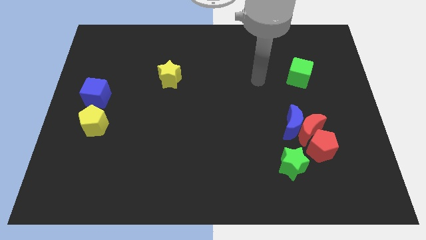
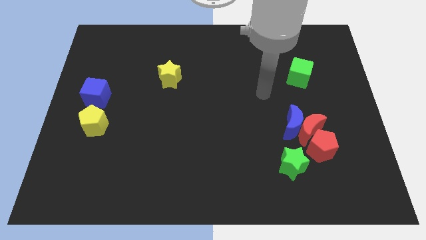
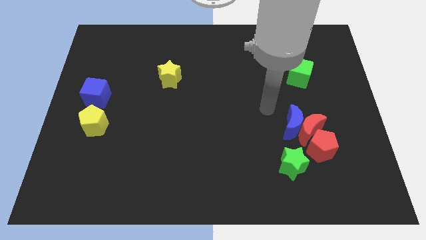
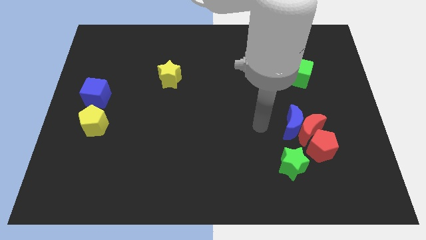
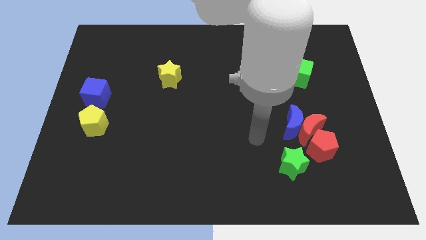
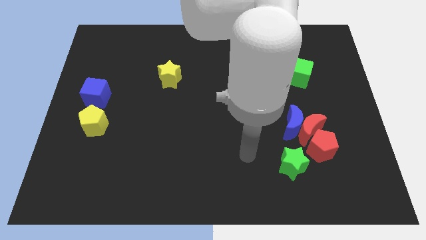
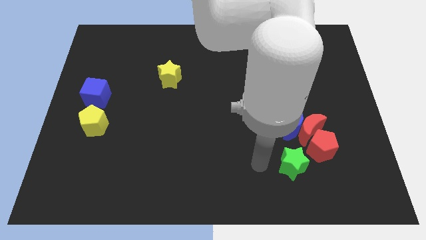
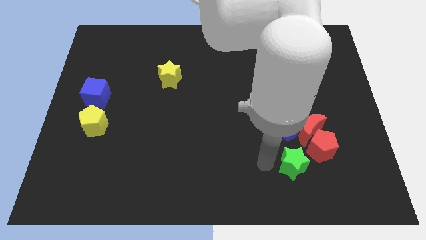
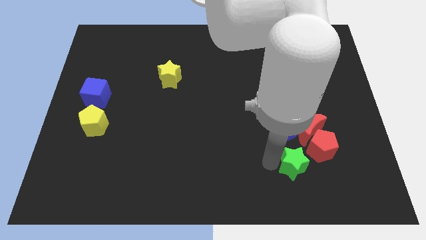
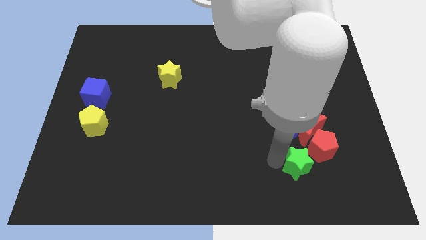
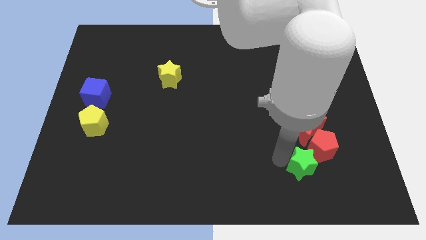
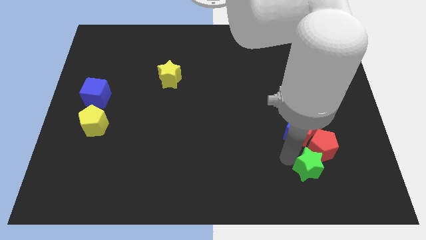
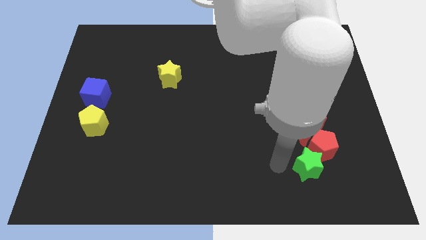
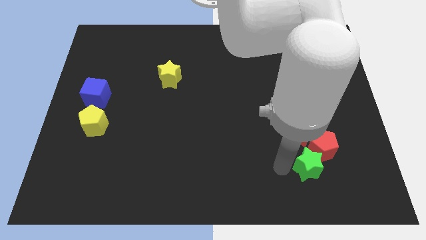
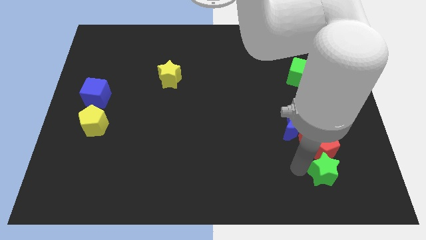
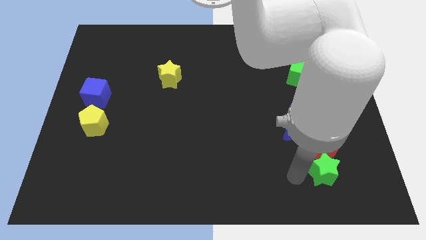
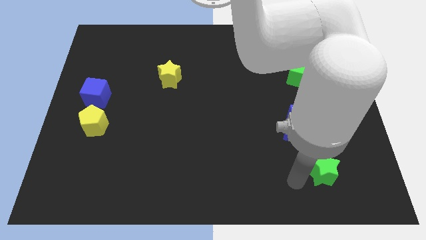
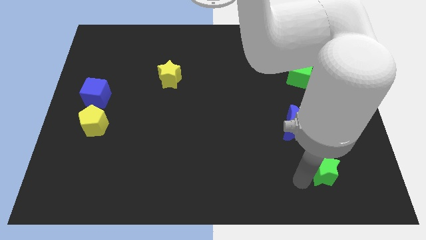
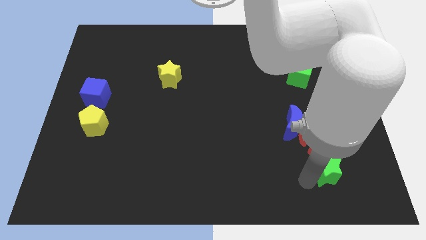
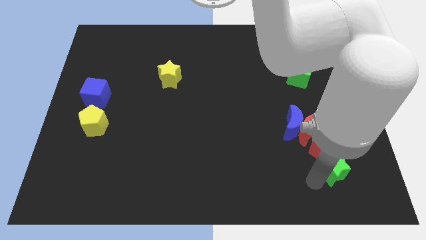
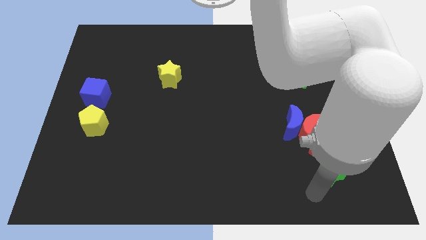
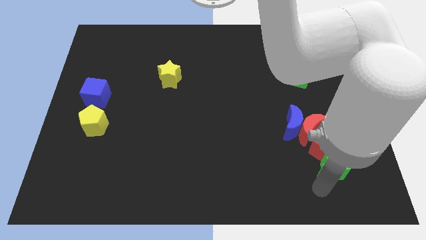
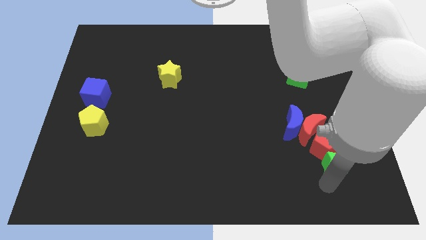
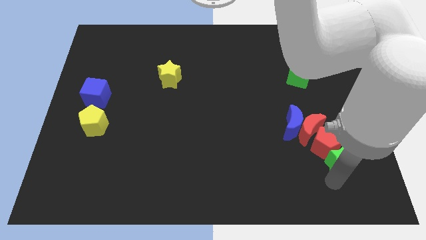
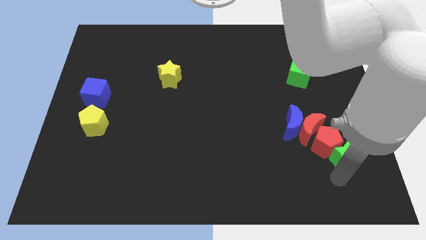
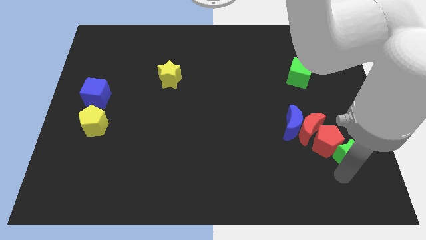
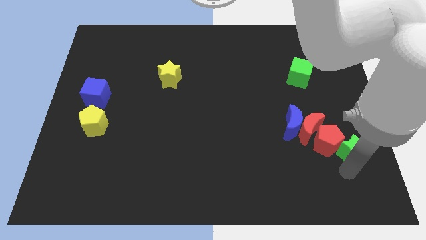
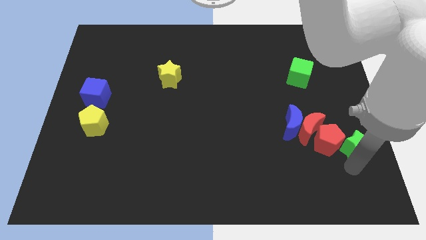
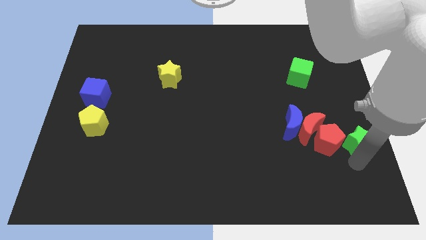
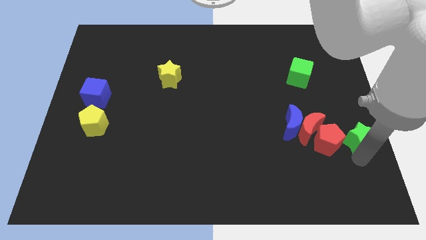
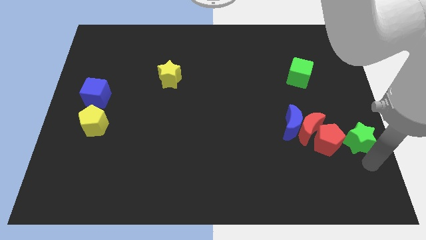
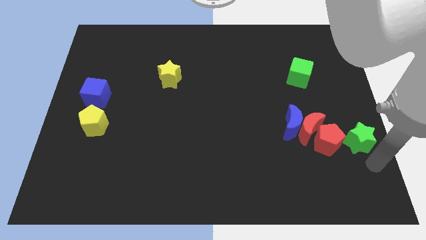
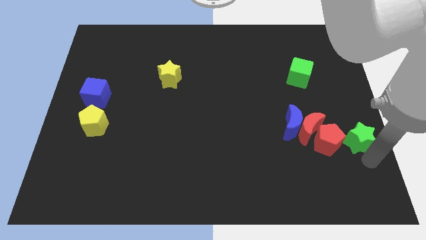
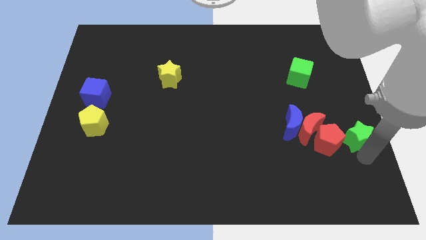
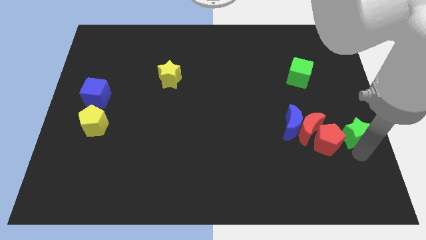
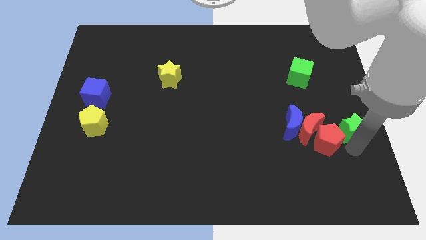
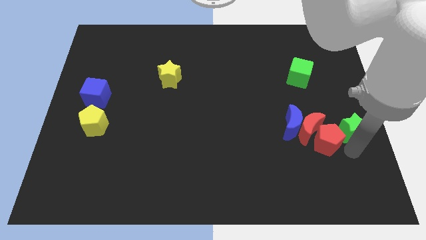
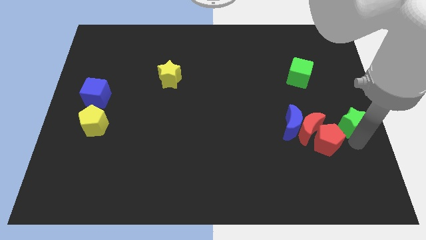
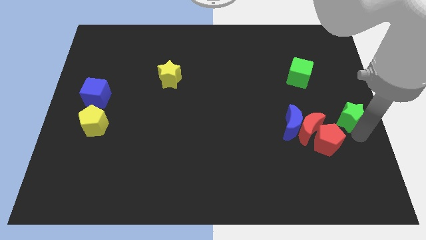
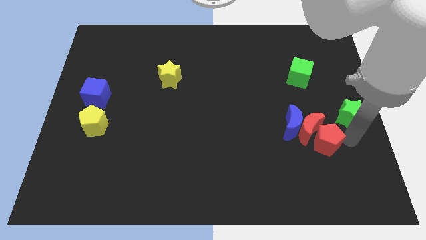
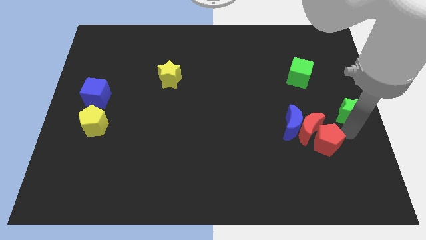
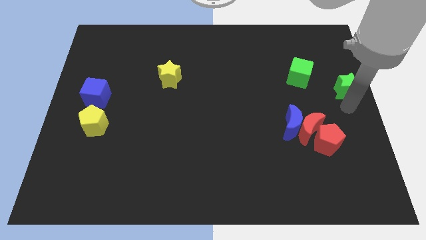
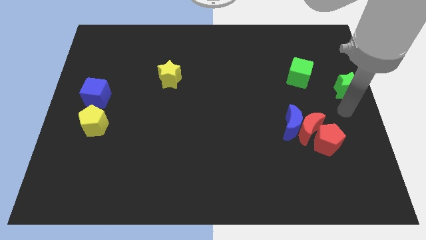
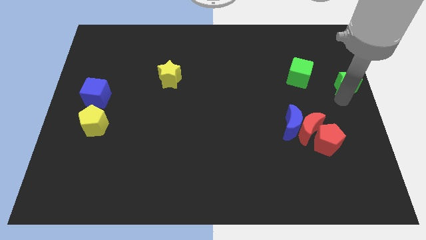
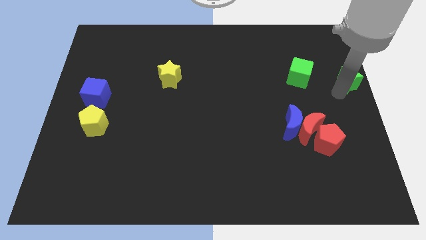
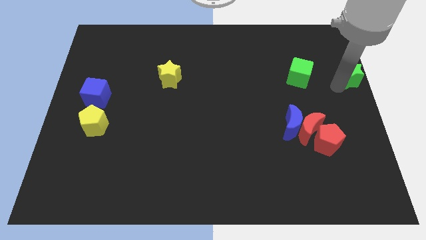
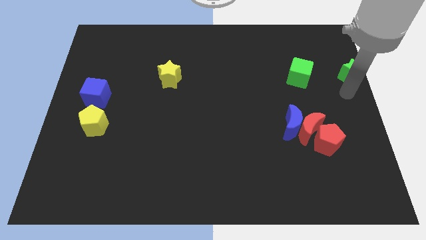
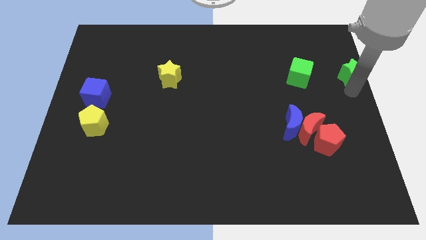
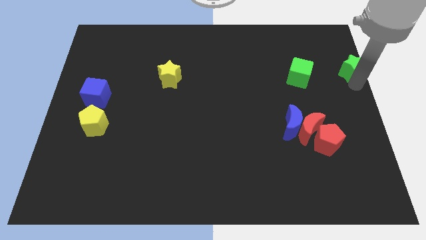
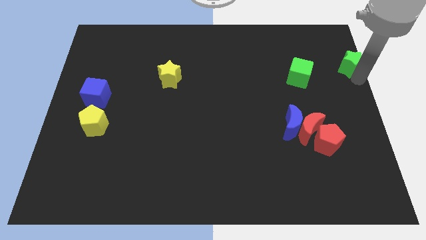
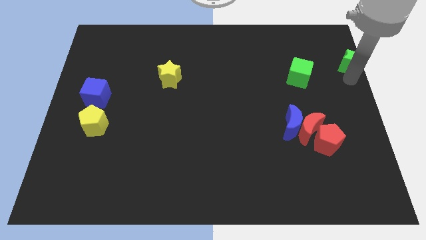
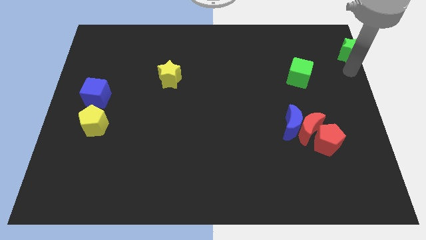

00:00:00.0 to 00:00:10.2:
slide the green star to the top right

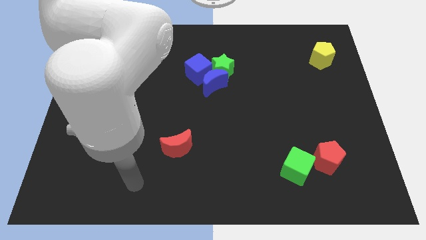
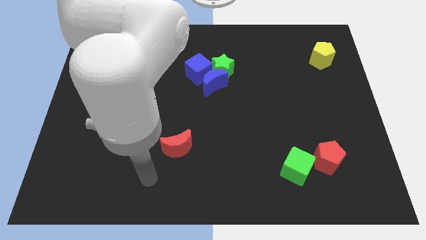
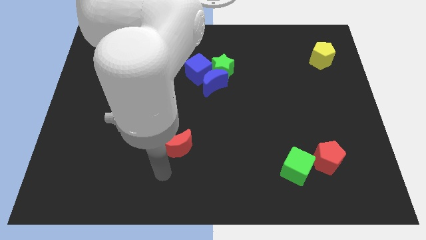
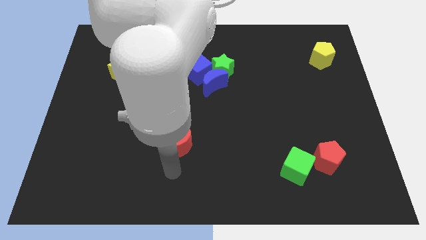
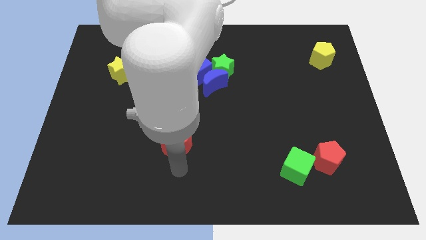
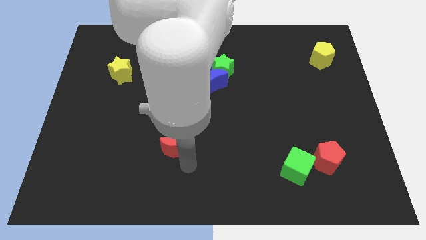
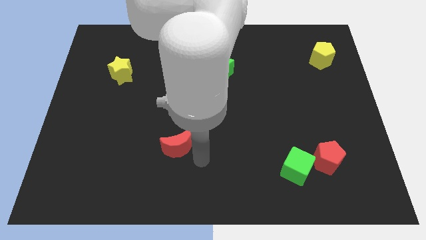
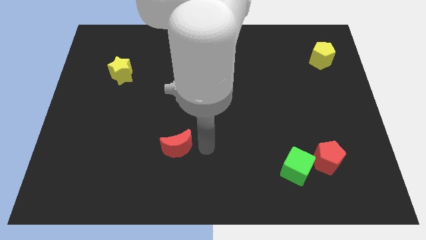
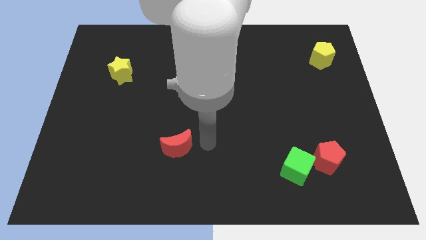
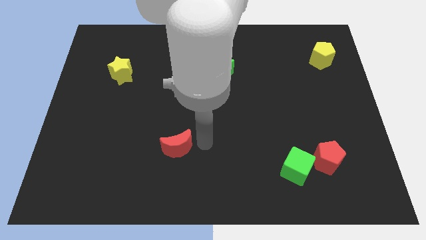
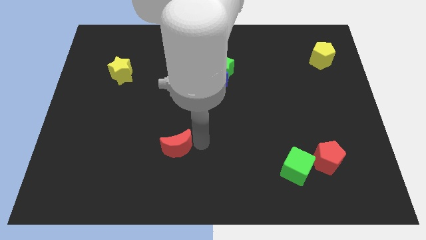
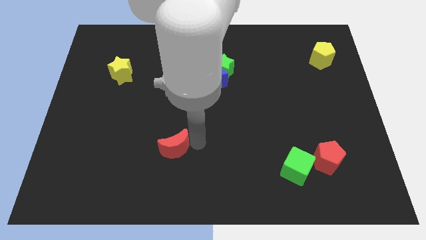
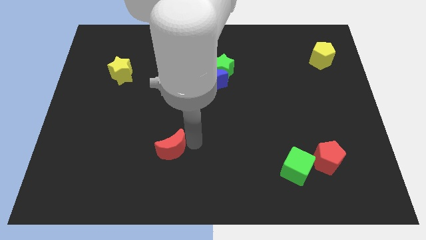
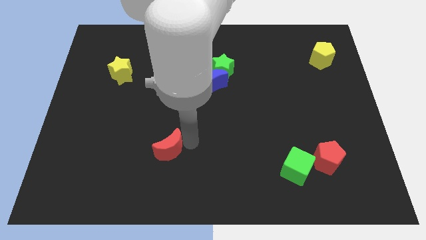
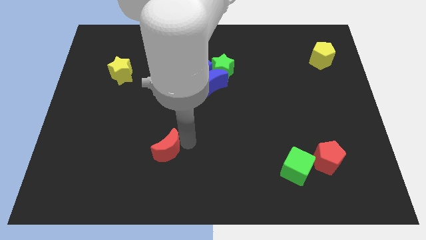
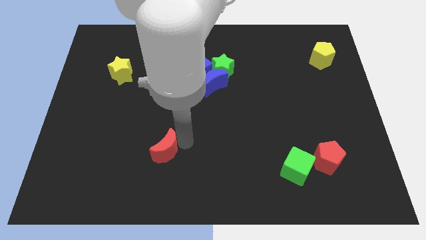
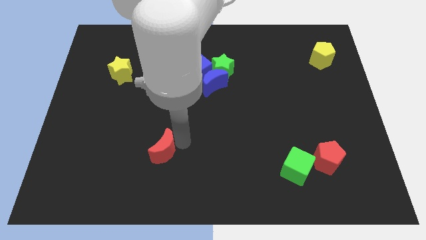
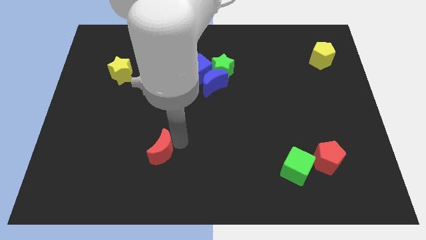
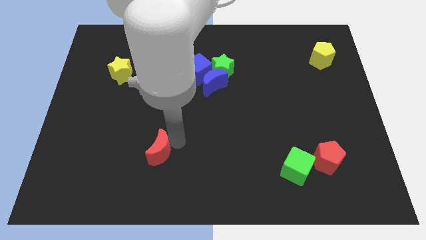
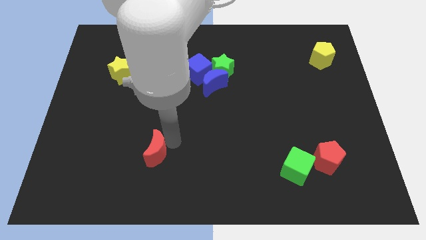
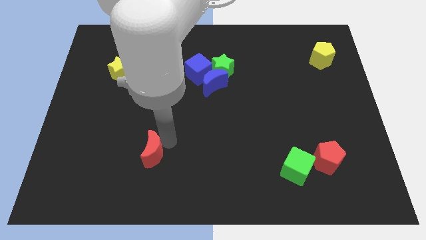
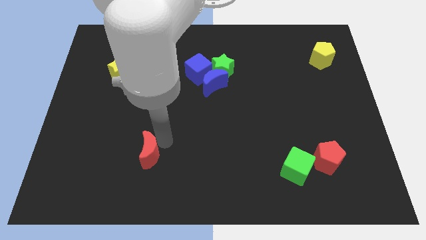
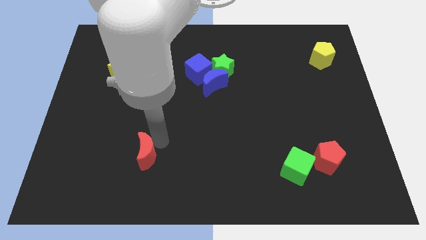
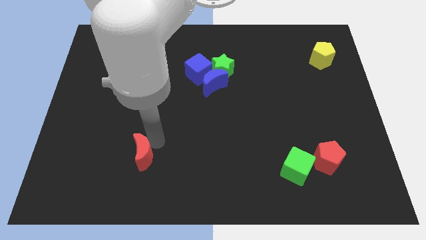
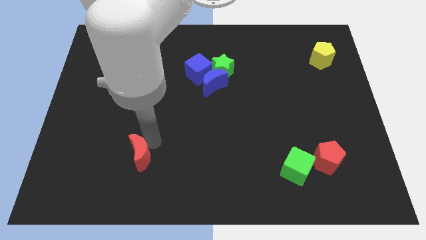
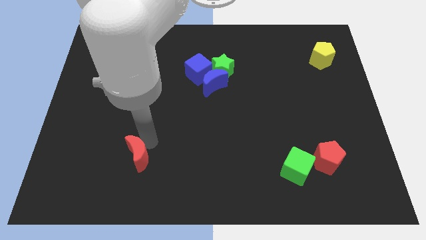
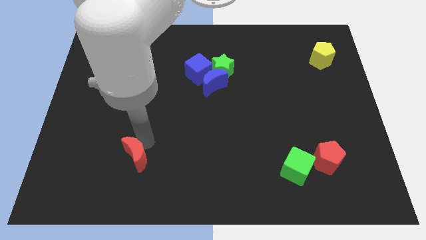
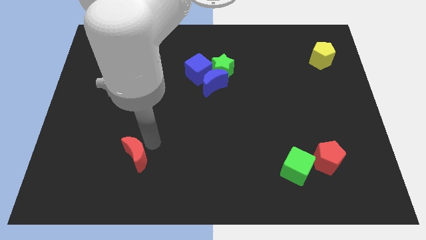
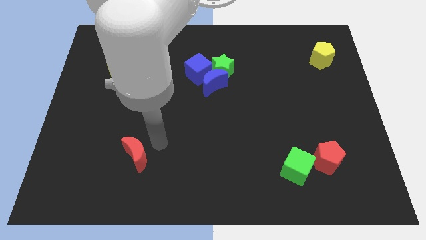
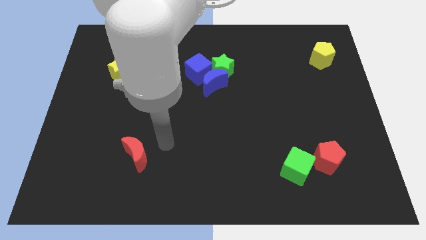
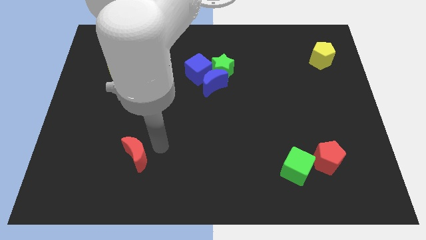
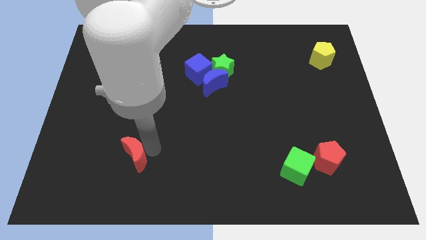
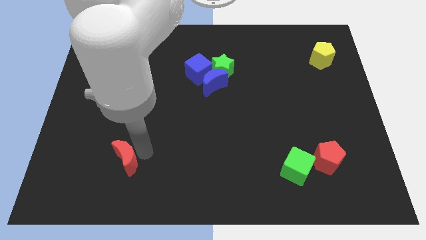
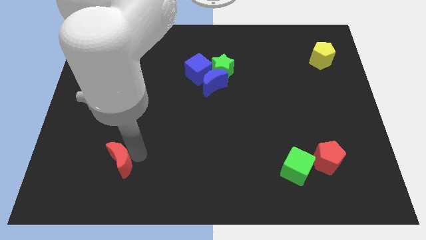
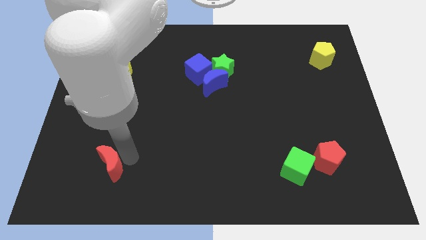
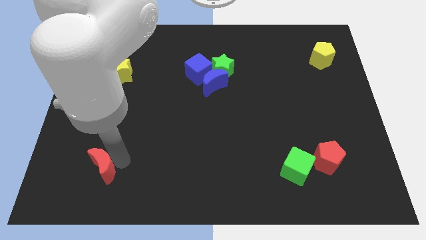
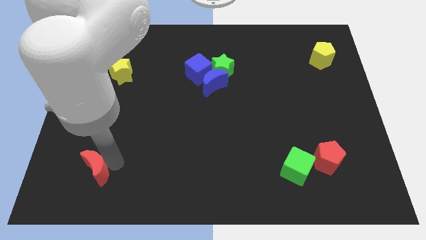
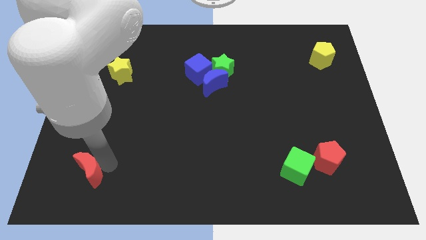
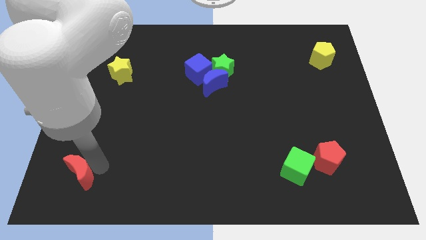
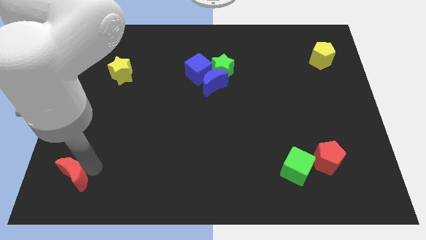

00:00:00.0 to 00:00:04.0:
push the red moon to the bottom left
